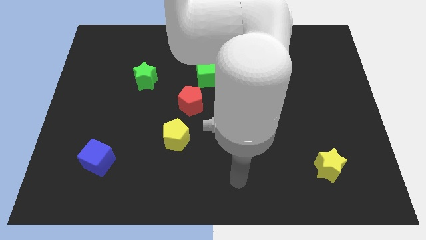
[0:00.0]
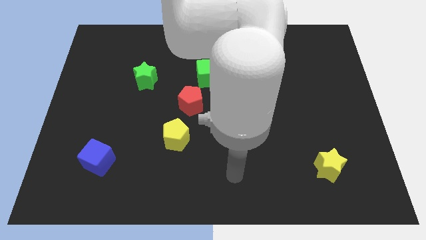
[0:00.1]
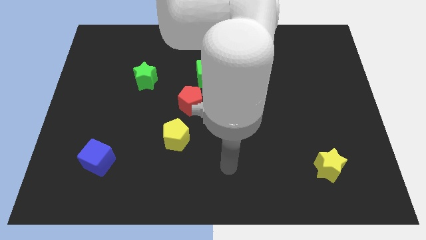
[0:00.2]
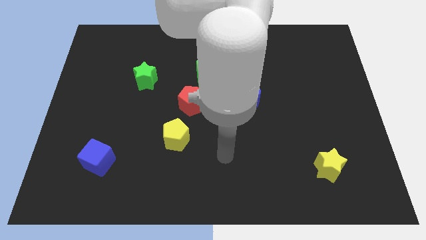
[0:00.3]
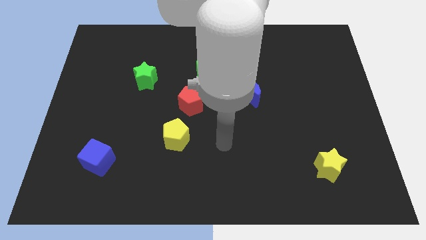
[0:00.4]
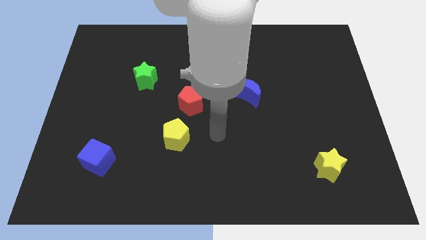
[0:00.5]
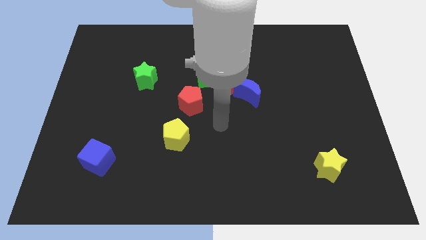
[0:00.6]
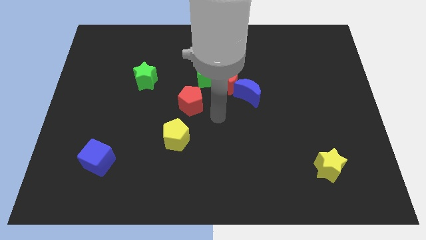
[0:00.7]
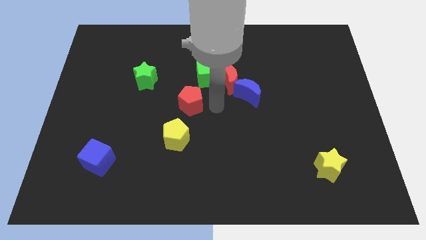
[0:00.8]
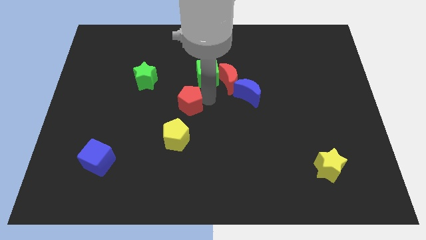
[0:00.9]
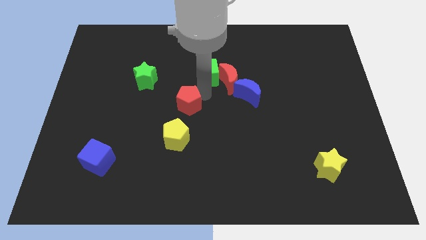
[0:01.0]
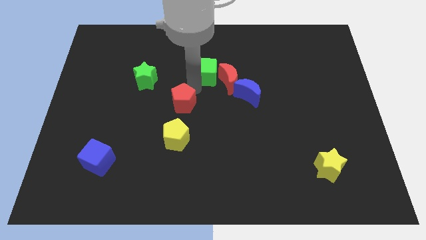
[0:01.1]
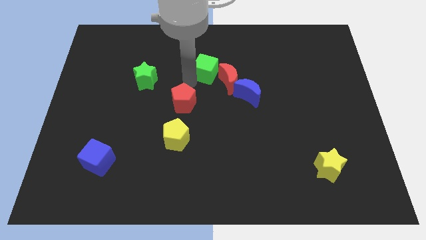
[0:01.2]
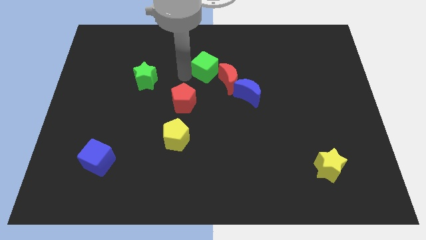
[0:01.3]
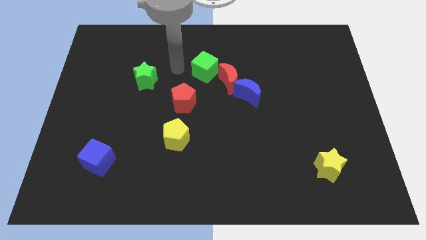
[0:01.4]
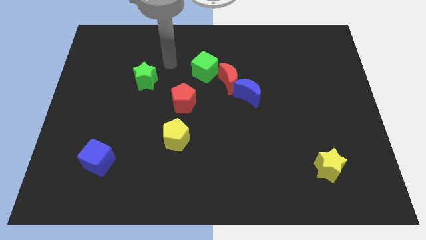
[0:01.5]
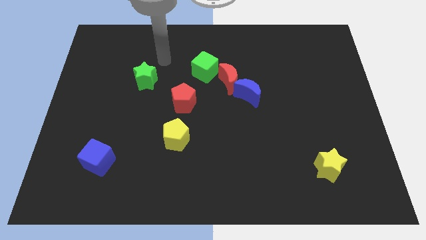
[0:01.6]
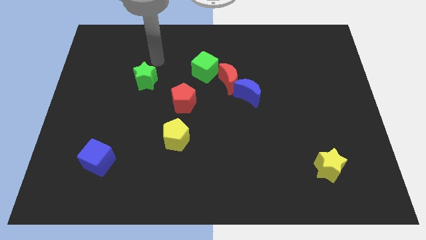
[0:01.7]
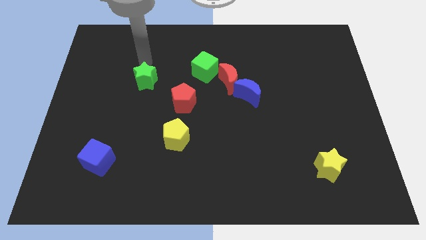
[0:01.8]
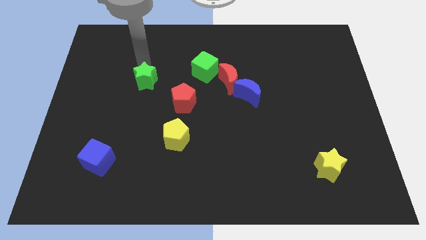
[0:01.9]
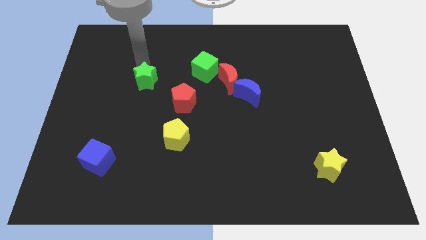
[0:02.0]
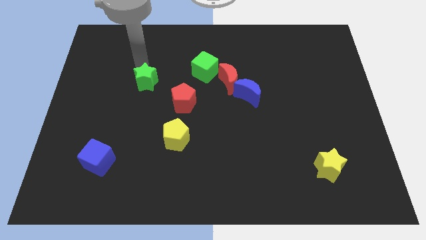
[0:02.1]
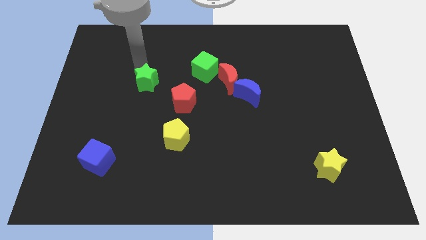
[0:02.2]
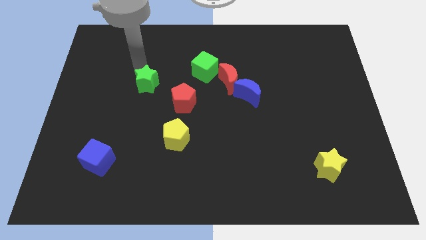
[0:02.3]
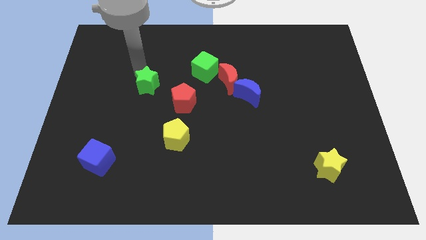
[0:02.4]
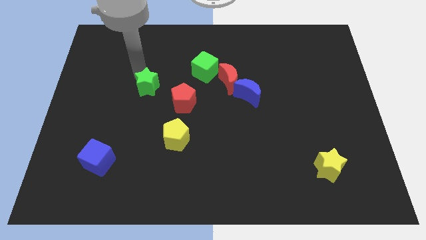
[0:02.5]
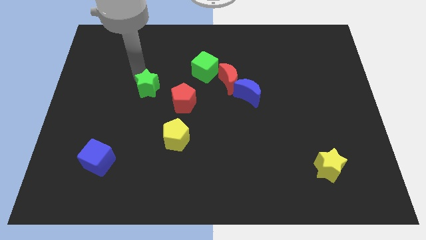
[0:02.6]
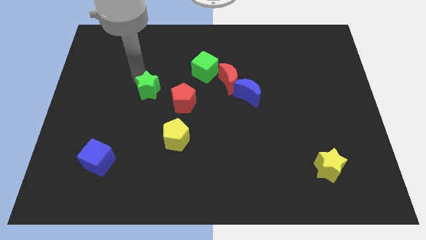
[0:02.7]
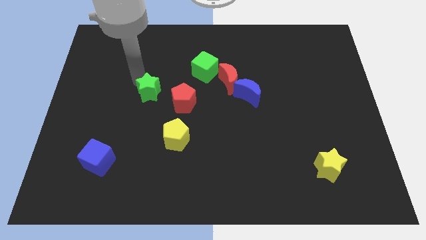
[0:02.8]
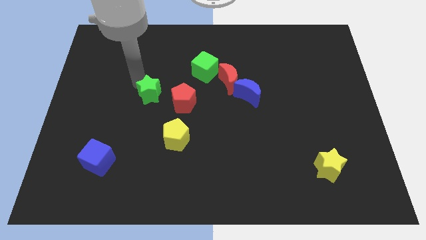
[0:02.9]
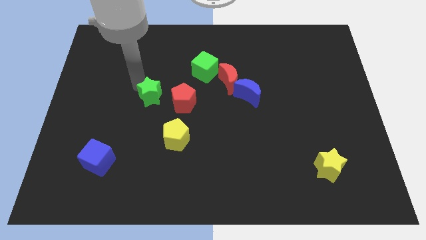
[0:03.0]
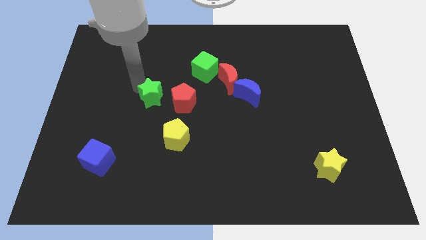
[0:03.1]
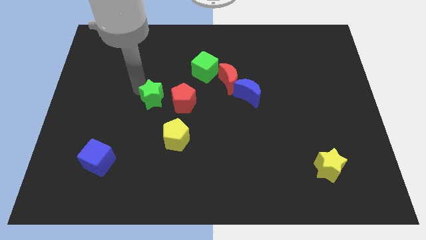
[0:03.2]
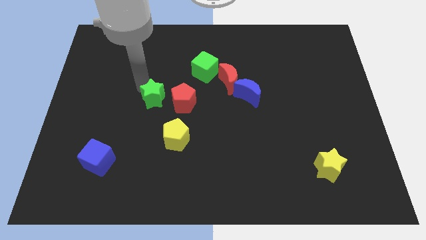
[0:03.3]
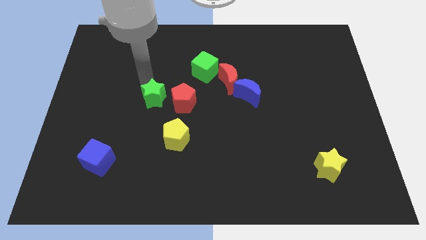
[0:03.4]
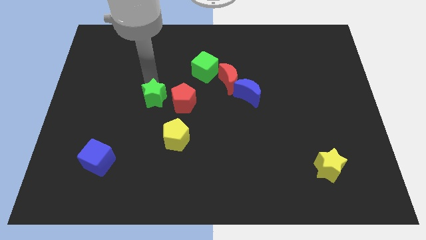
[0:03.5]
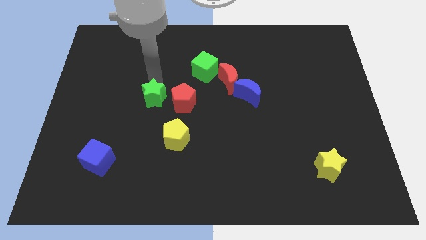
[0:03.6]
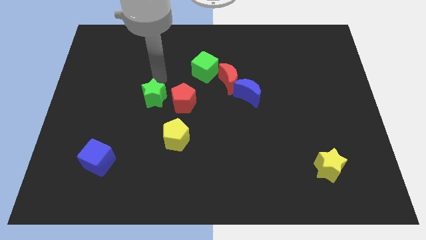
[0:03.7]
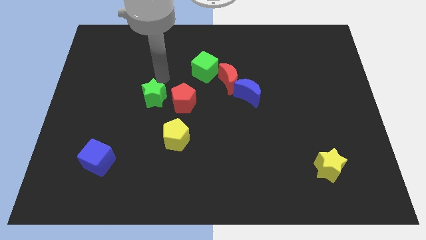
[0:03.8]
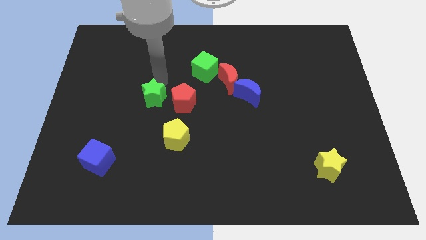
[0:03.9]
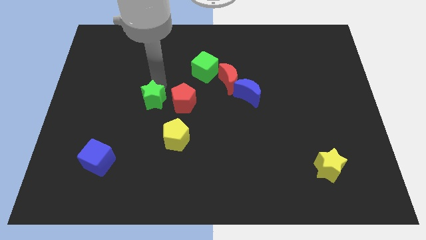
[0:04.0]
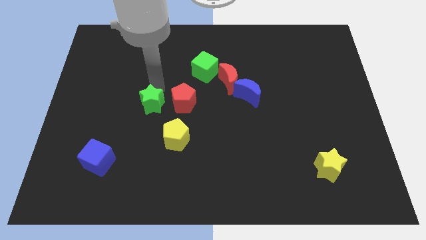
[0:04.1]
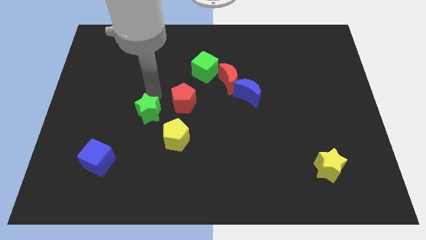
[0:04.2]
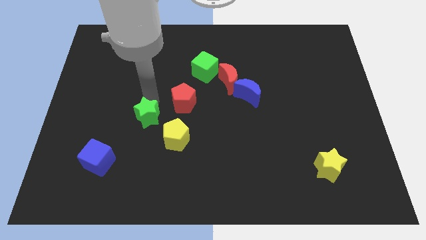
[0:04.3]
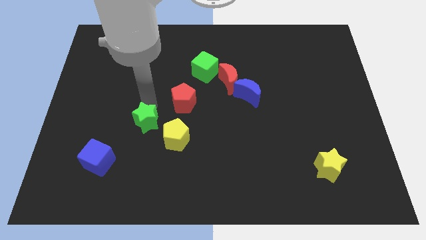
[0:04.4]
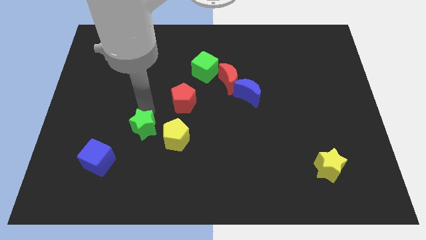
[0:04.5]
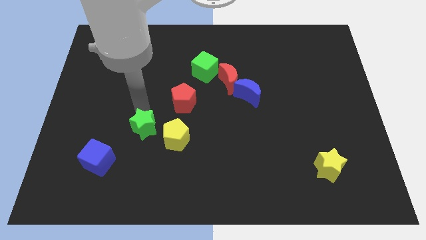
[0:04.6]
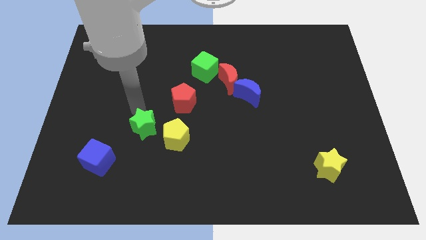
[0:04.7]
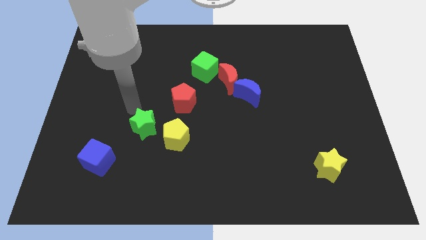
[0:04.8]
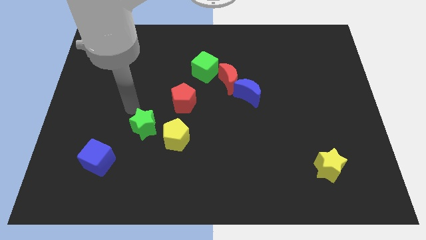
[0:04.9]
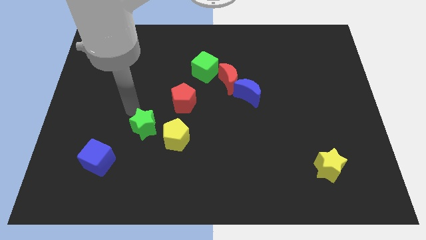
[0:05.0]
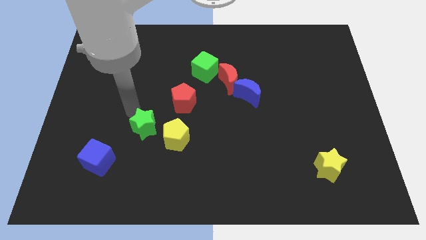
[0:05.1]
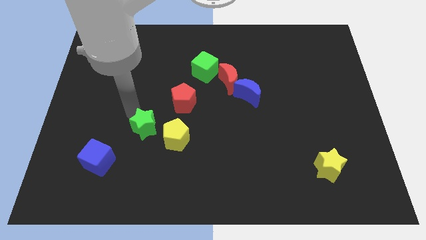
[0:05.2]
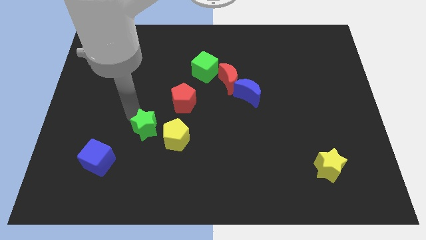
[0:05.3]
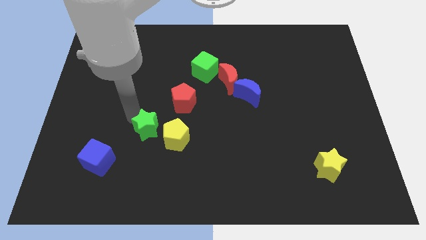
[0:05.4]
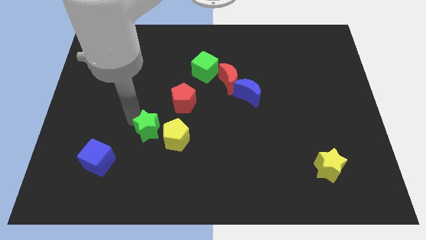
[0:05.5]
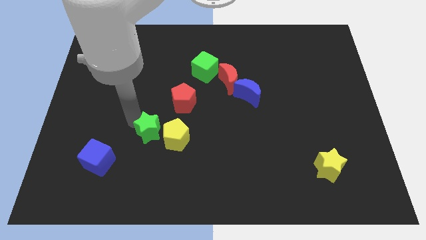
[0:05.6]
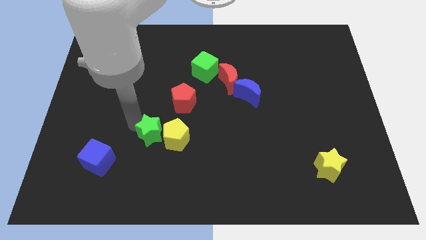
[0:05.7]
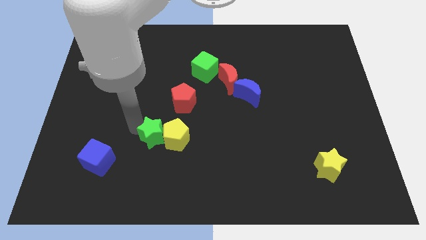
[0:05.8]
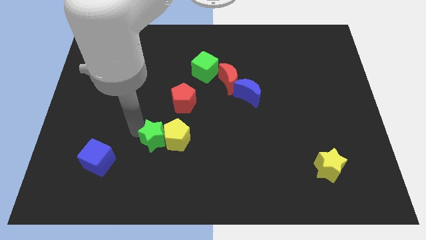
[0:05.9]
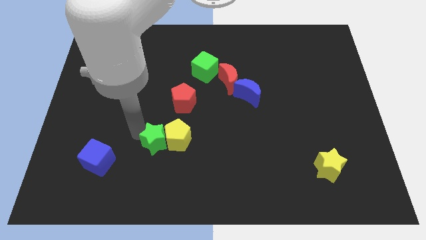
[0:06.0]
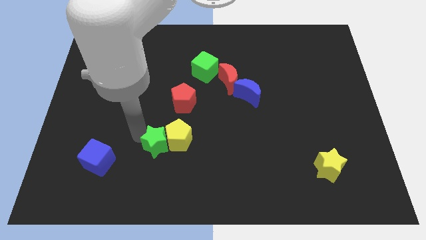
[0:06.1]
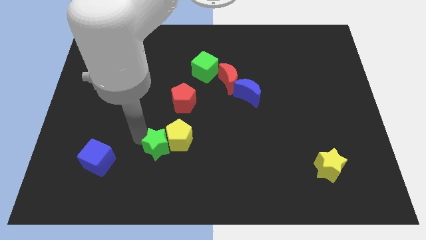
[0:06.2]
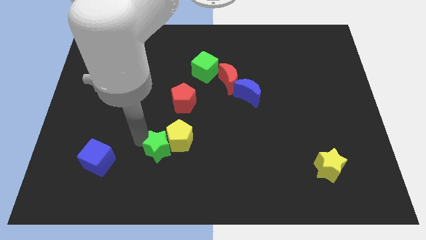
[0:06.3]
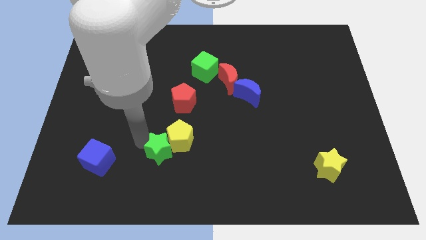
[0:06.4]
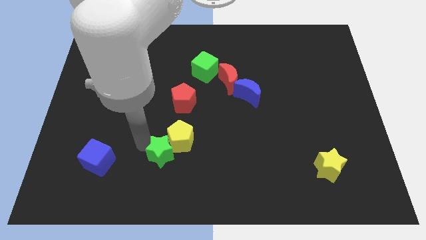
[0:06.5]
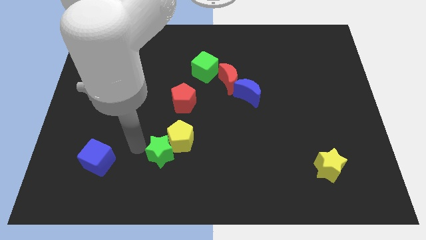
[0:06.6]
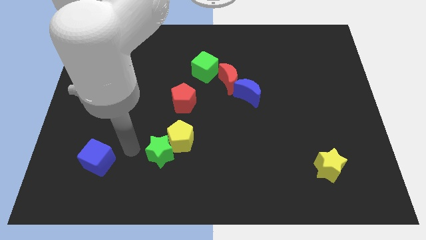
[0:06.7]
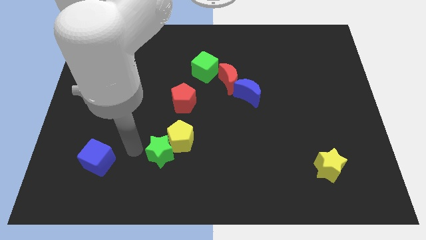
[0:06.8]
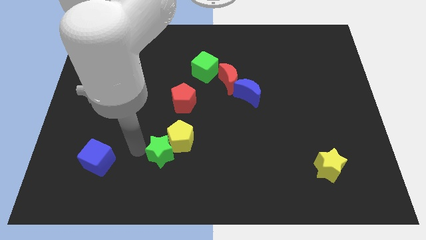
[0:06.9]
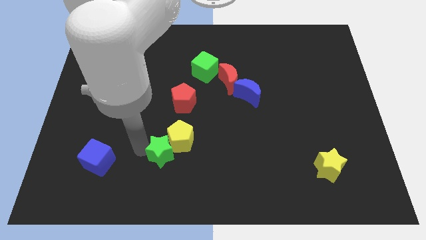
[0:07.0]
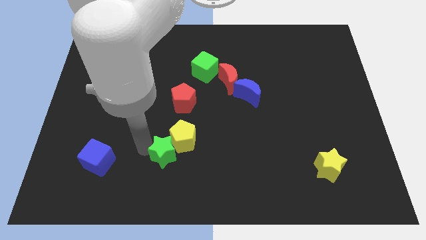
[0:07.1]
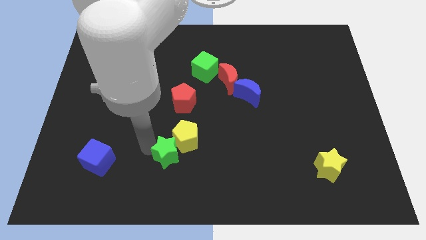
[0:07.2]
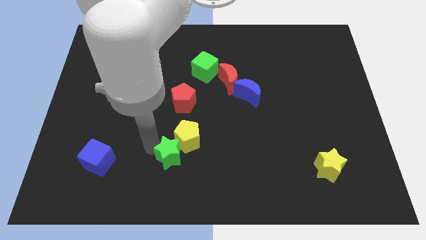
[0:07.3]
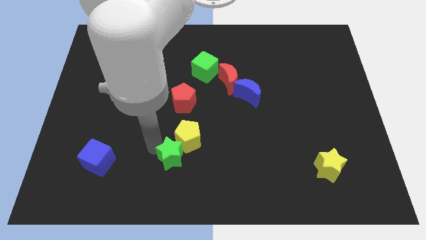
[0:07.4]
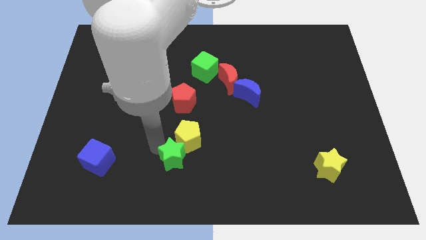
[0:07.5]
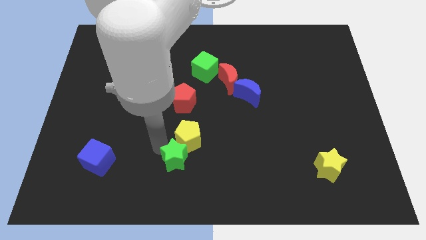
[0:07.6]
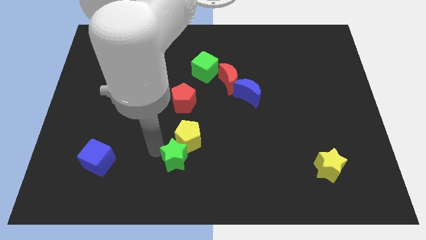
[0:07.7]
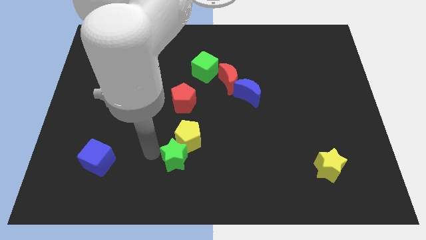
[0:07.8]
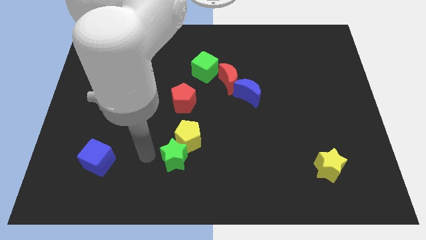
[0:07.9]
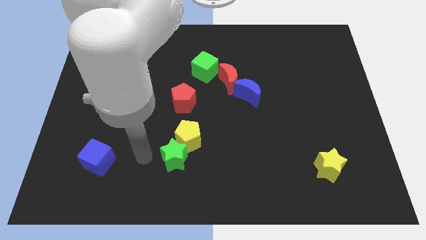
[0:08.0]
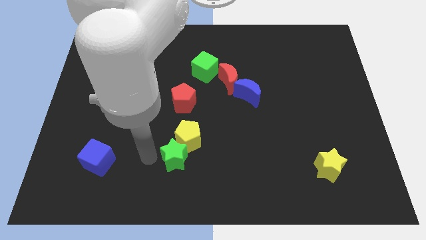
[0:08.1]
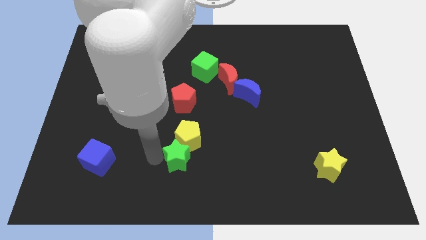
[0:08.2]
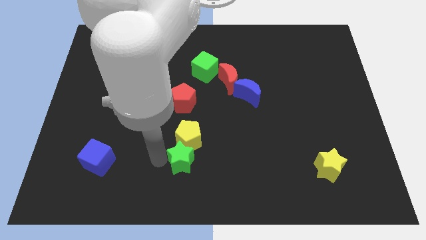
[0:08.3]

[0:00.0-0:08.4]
push the green star down and to the right
